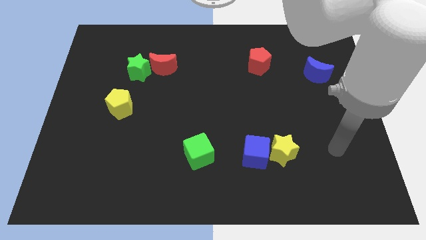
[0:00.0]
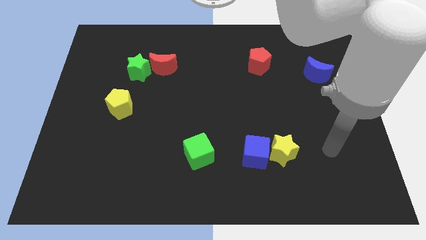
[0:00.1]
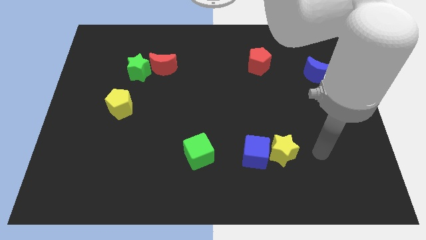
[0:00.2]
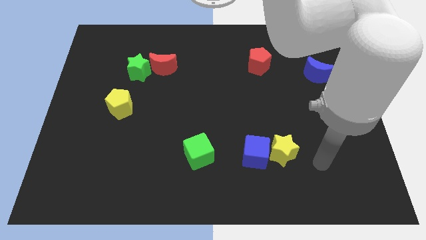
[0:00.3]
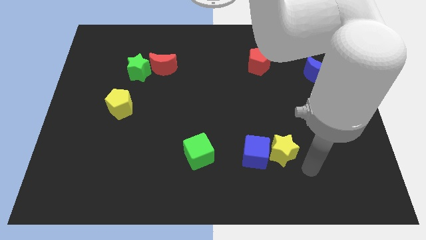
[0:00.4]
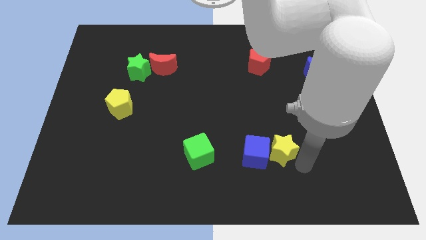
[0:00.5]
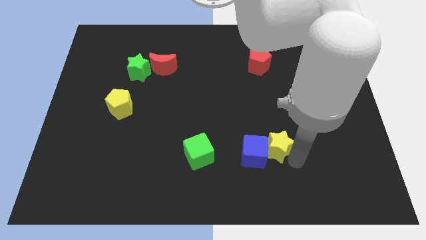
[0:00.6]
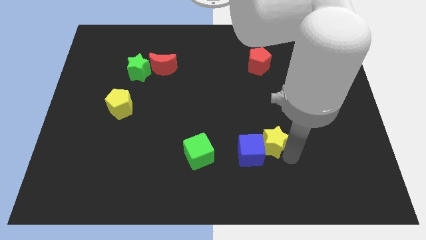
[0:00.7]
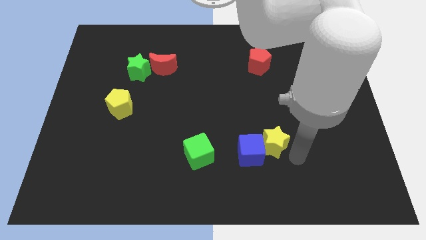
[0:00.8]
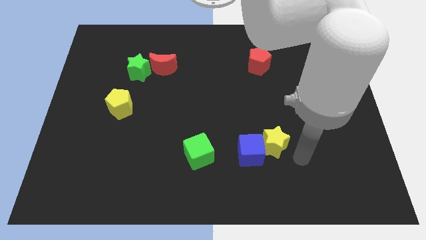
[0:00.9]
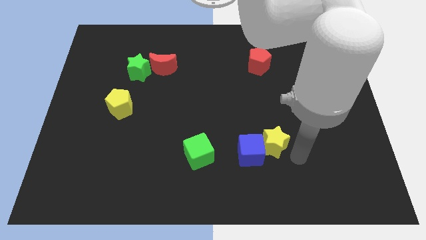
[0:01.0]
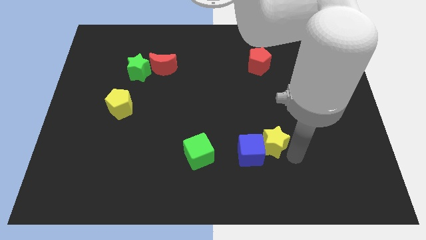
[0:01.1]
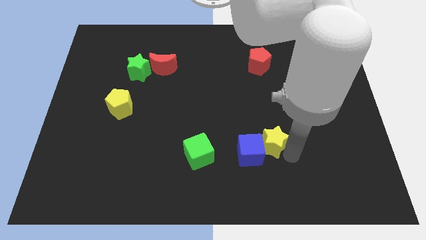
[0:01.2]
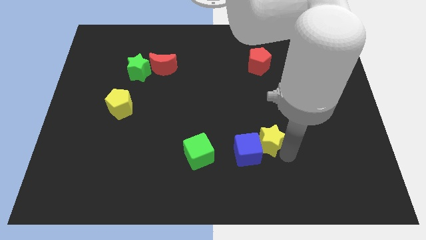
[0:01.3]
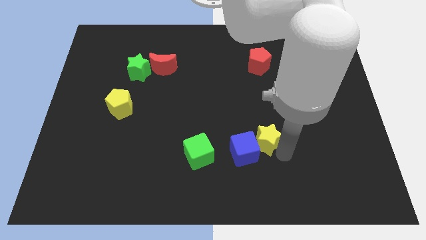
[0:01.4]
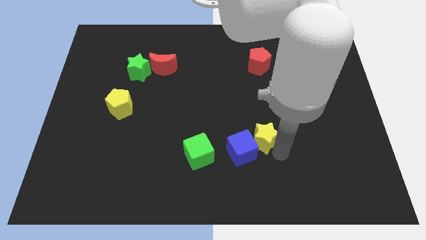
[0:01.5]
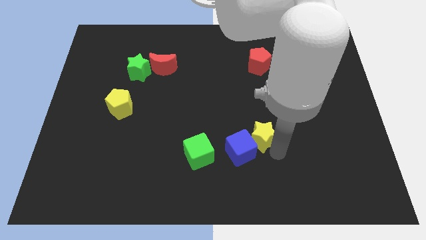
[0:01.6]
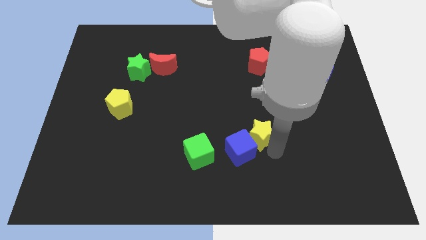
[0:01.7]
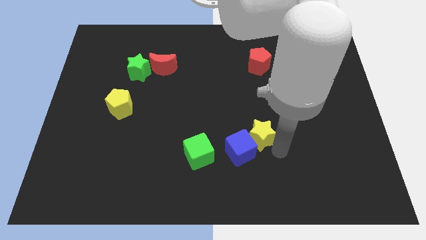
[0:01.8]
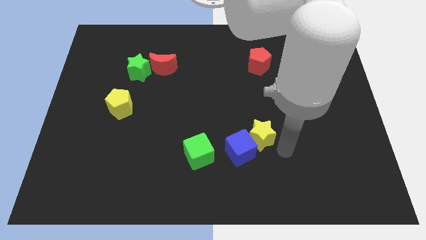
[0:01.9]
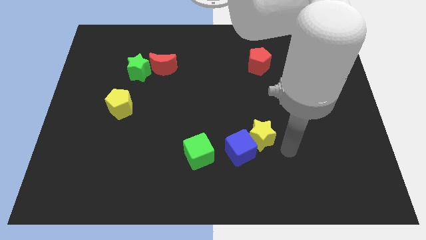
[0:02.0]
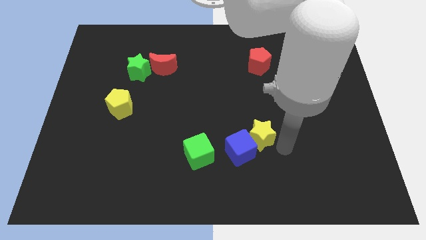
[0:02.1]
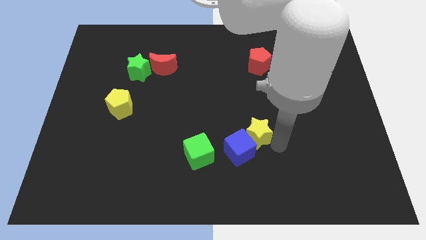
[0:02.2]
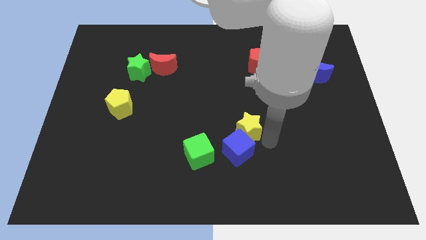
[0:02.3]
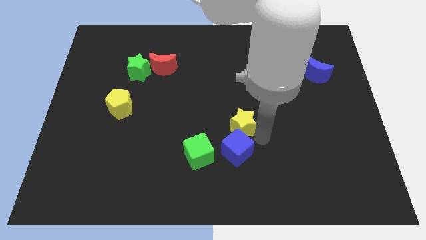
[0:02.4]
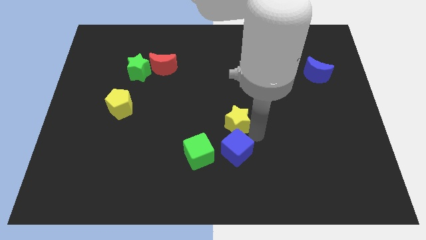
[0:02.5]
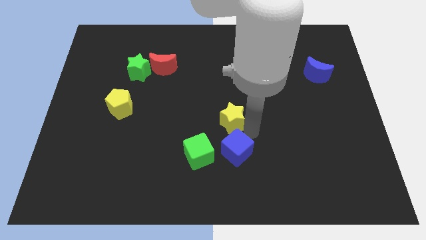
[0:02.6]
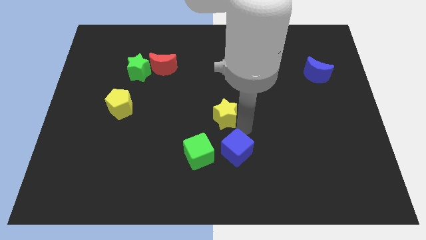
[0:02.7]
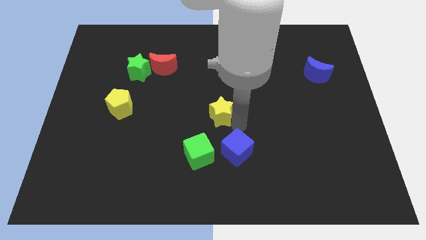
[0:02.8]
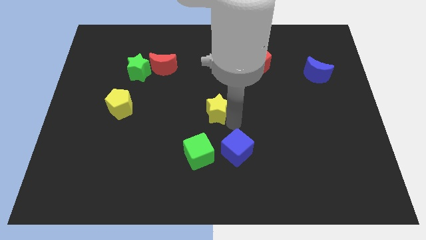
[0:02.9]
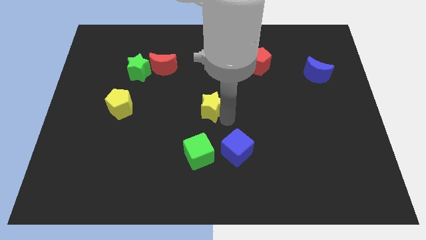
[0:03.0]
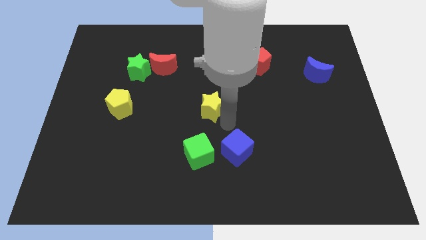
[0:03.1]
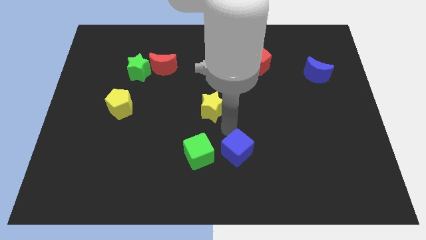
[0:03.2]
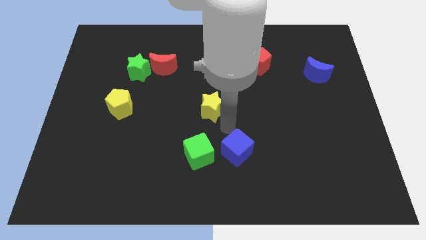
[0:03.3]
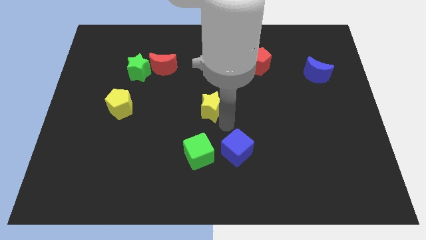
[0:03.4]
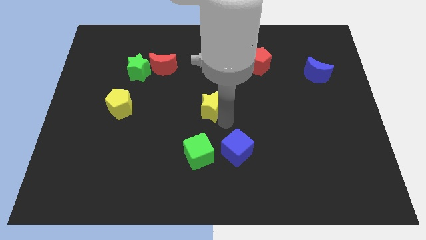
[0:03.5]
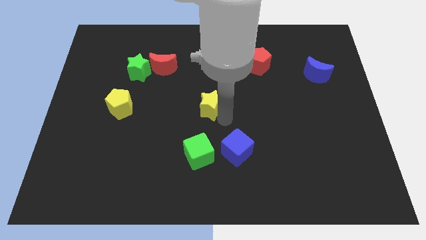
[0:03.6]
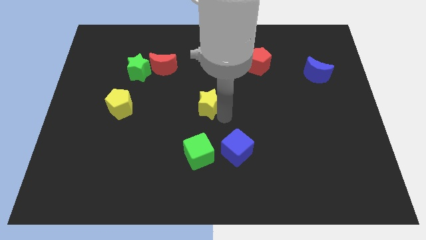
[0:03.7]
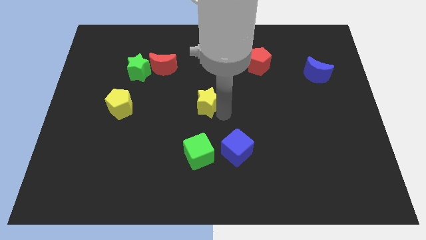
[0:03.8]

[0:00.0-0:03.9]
push the yellow star diagonally upwards and to the left

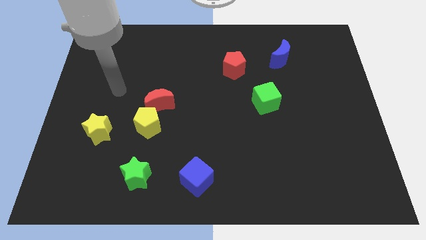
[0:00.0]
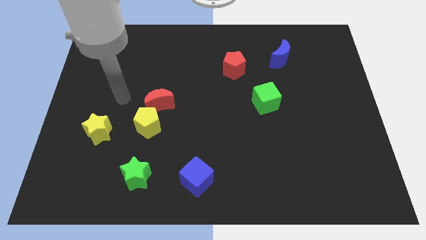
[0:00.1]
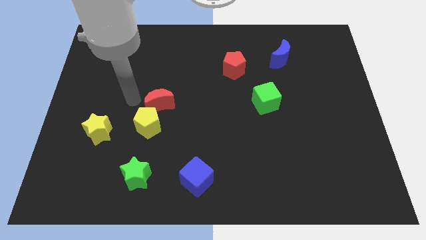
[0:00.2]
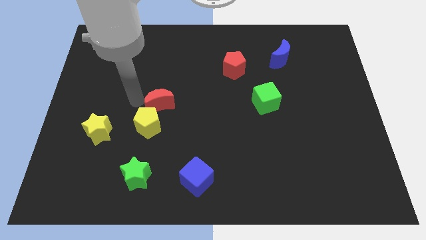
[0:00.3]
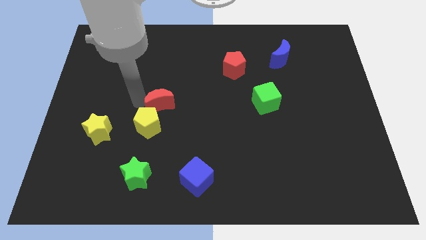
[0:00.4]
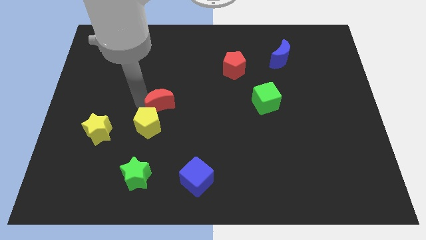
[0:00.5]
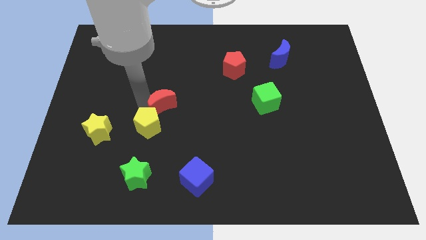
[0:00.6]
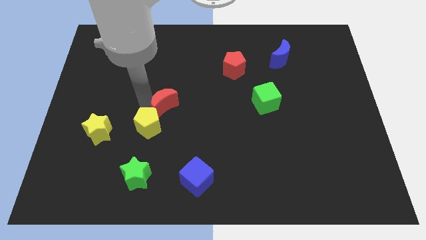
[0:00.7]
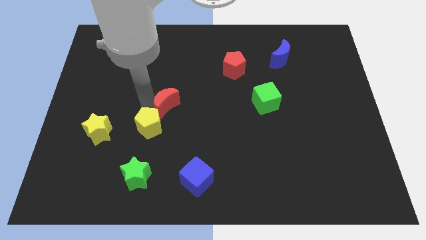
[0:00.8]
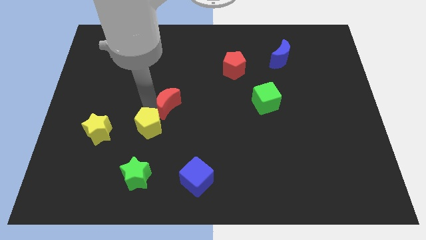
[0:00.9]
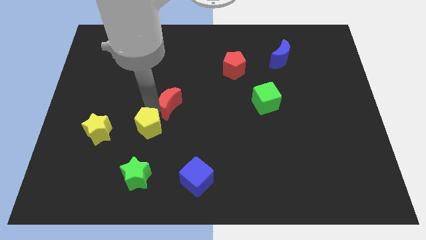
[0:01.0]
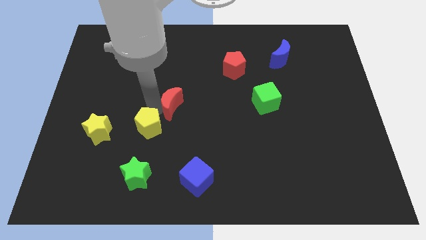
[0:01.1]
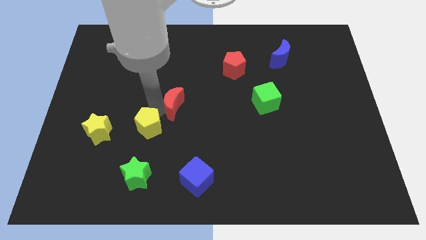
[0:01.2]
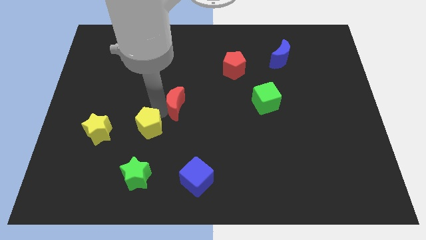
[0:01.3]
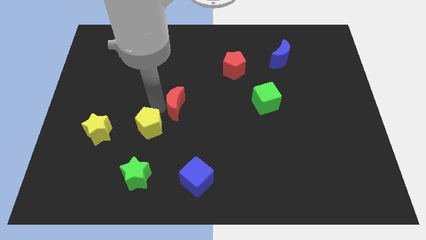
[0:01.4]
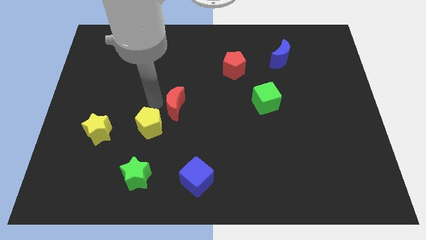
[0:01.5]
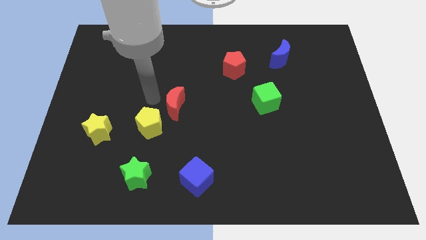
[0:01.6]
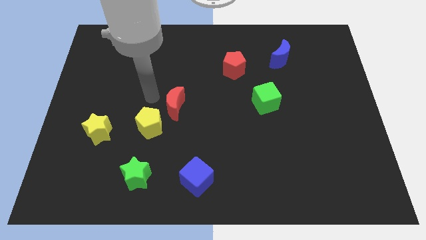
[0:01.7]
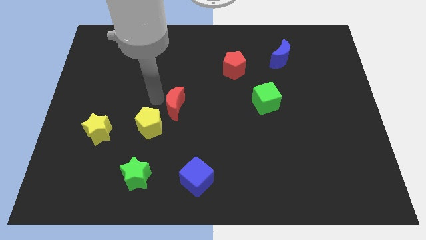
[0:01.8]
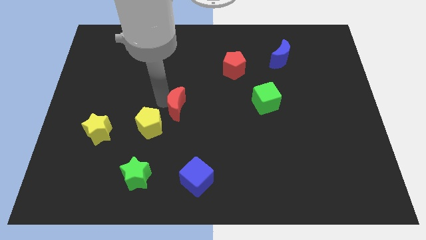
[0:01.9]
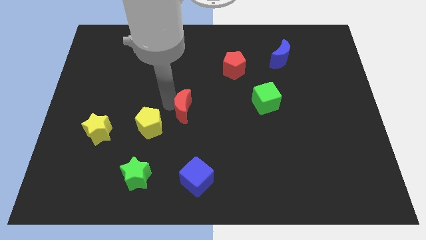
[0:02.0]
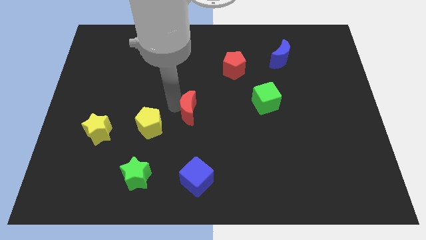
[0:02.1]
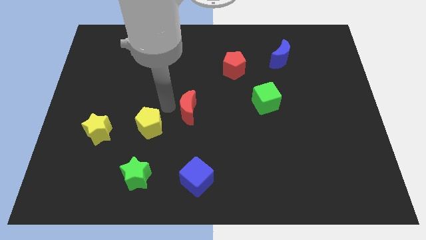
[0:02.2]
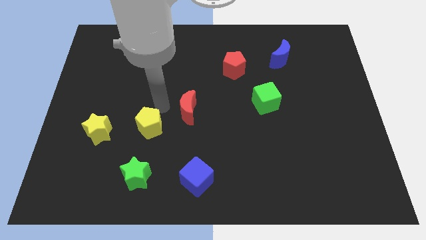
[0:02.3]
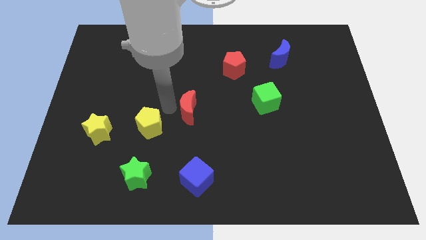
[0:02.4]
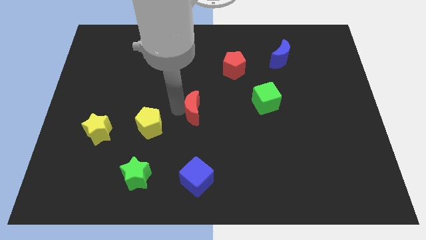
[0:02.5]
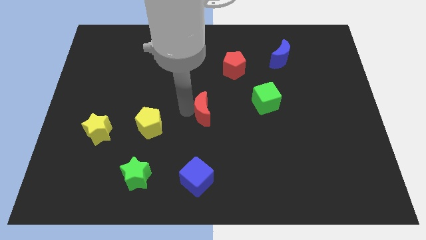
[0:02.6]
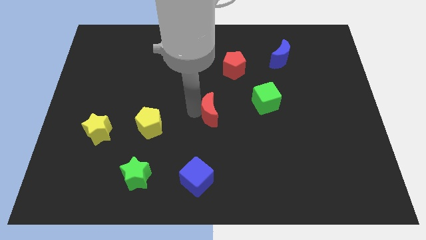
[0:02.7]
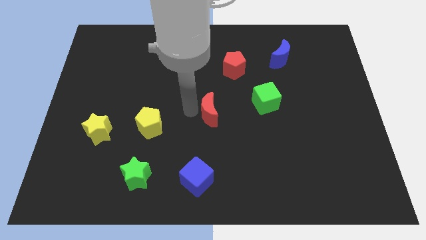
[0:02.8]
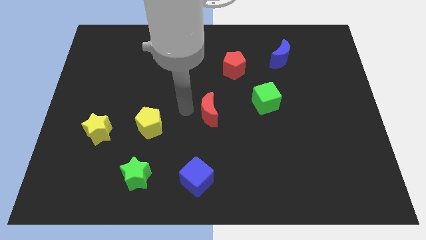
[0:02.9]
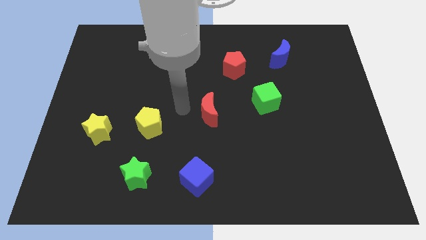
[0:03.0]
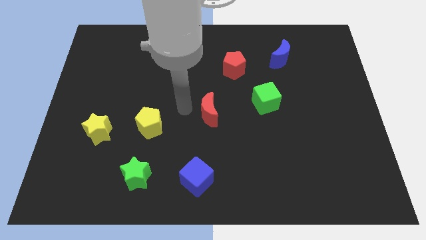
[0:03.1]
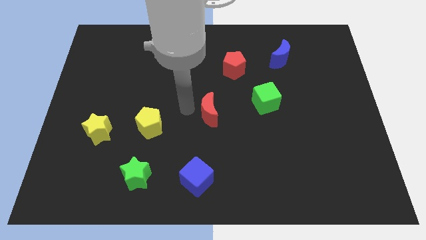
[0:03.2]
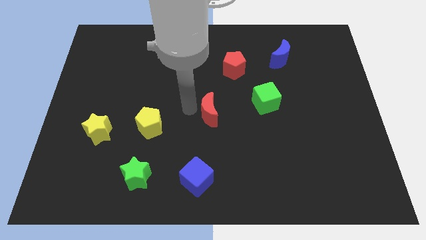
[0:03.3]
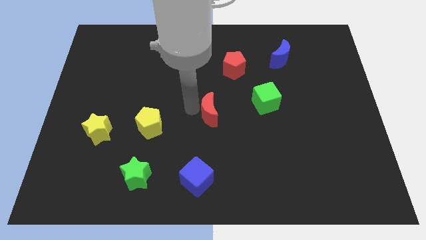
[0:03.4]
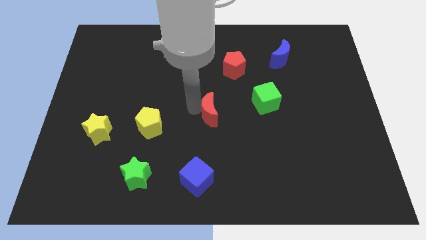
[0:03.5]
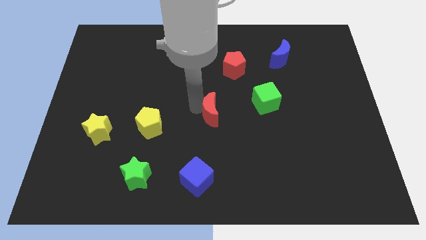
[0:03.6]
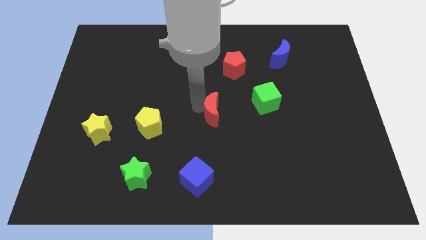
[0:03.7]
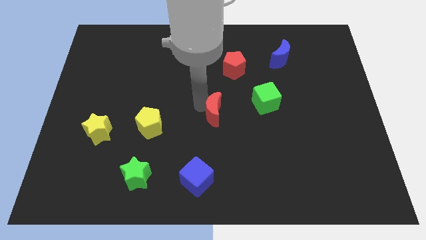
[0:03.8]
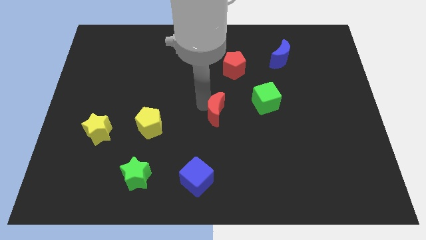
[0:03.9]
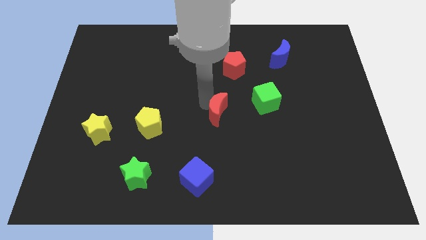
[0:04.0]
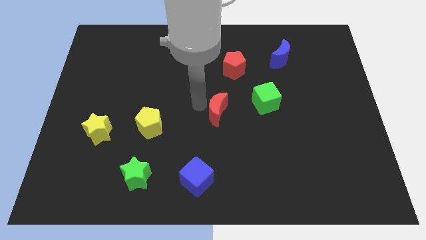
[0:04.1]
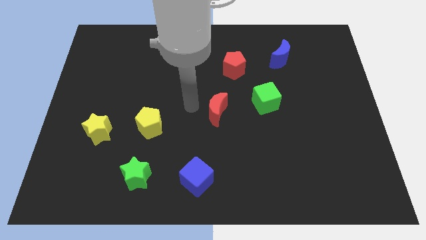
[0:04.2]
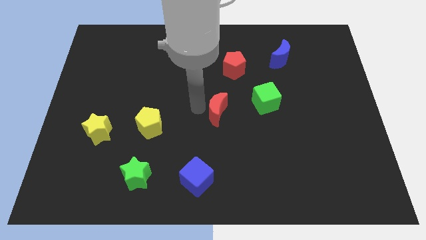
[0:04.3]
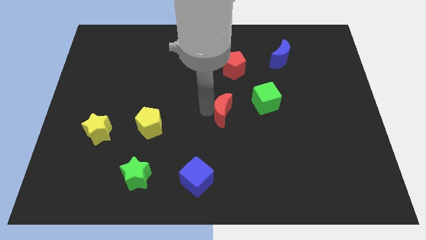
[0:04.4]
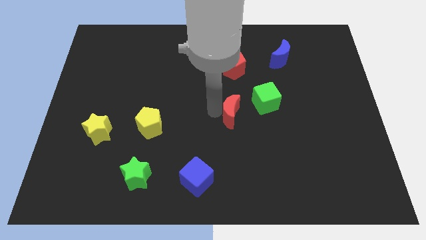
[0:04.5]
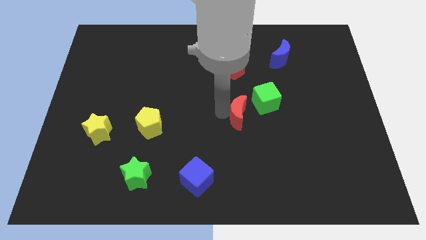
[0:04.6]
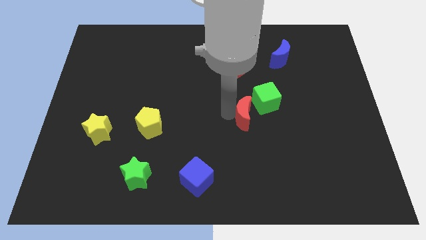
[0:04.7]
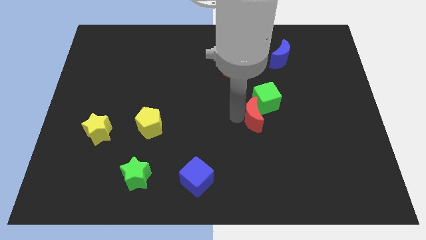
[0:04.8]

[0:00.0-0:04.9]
push the red moon to the right
